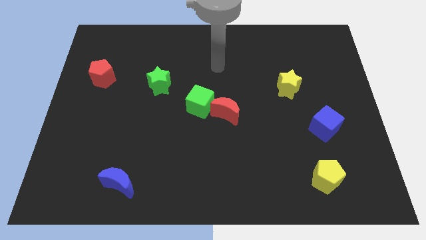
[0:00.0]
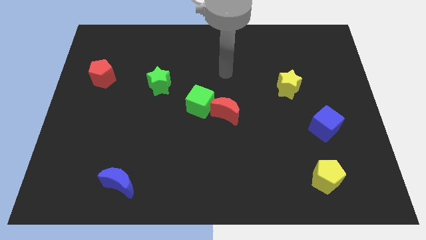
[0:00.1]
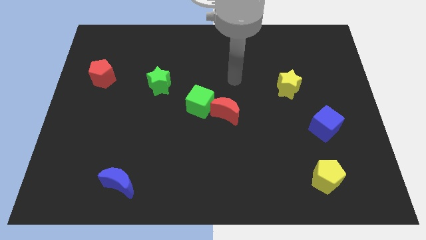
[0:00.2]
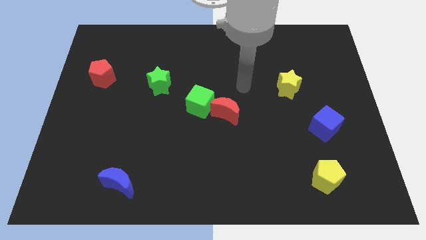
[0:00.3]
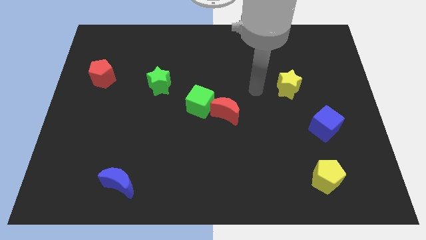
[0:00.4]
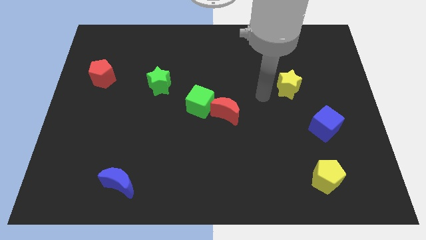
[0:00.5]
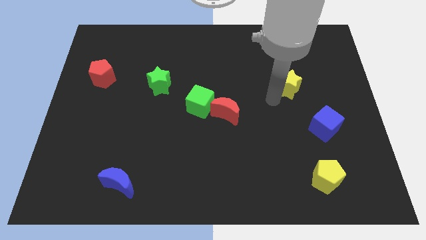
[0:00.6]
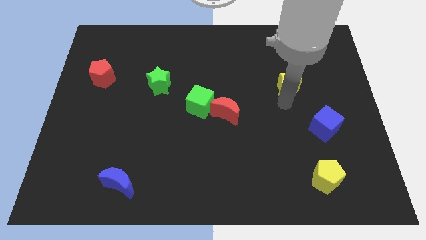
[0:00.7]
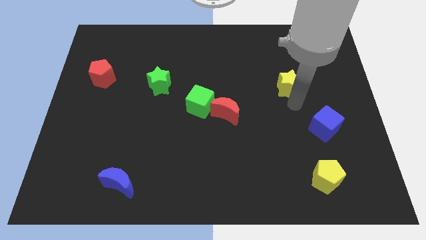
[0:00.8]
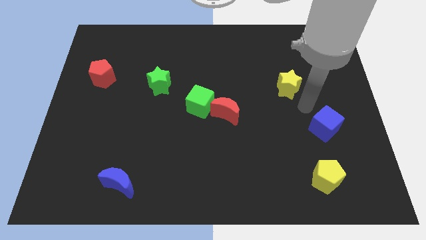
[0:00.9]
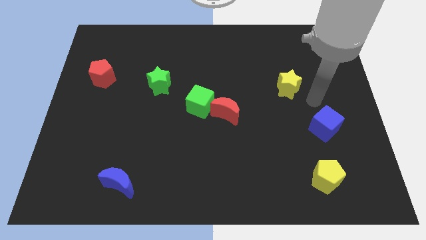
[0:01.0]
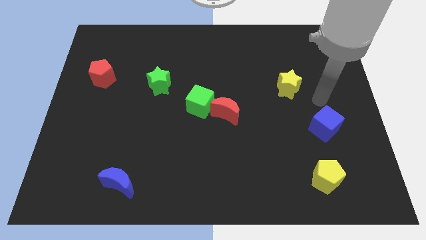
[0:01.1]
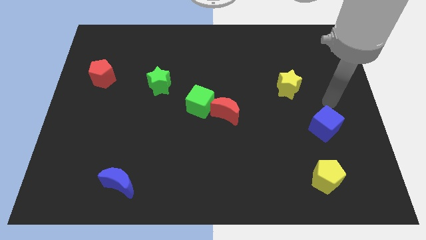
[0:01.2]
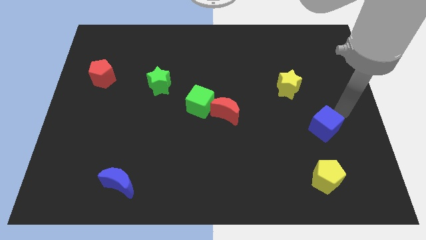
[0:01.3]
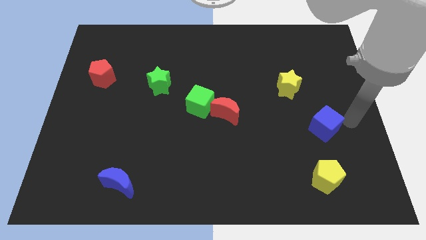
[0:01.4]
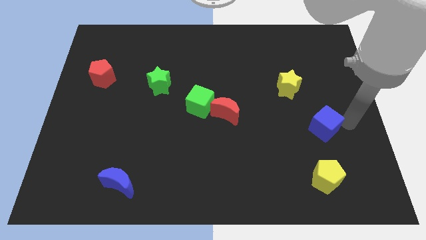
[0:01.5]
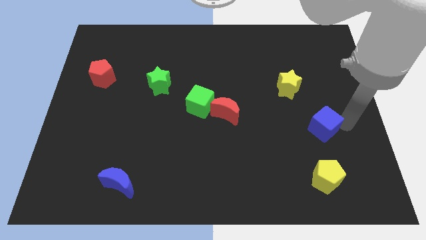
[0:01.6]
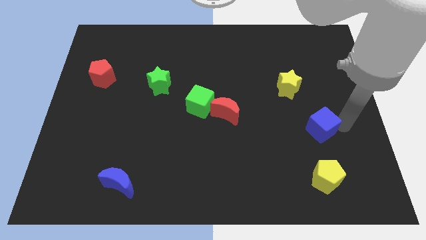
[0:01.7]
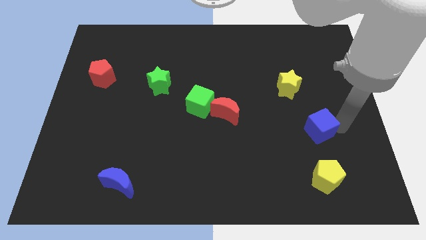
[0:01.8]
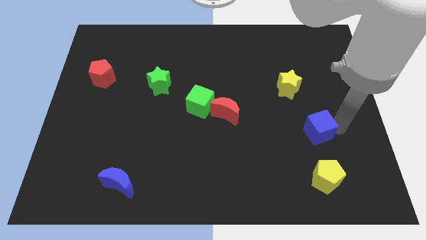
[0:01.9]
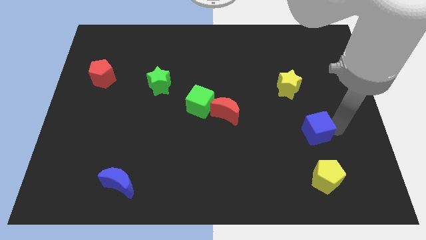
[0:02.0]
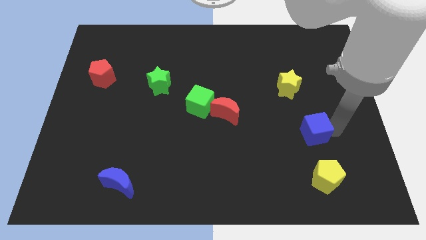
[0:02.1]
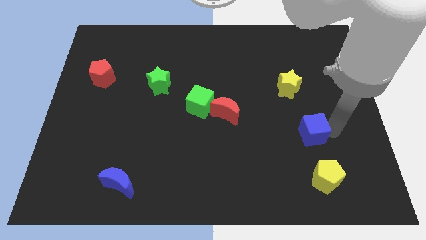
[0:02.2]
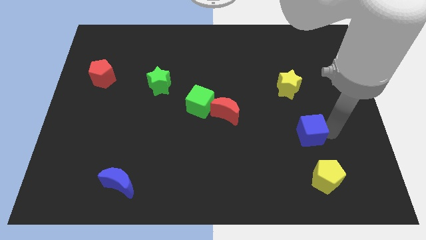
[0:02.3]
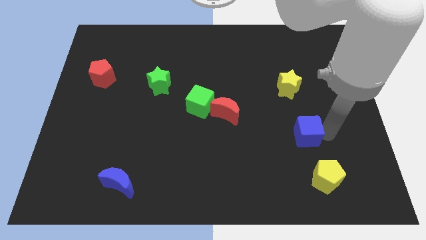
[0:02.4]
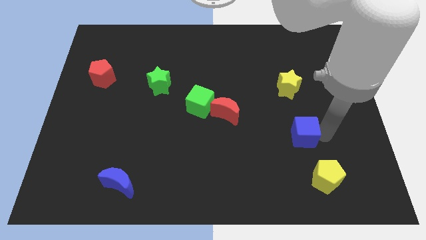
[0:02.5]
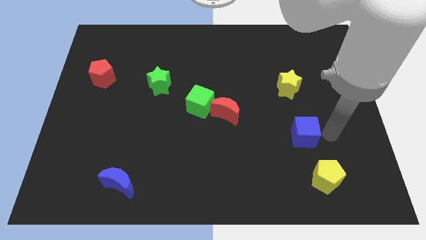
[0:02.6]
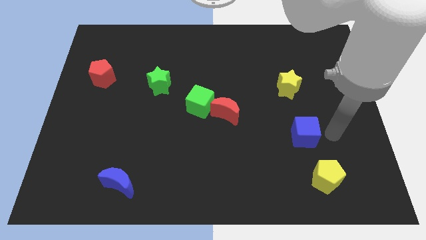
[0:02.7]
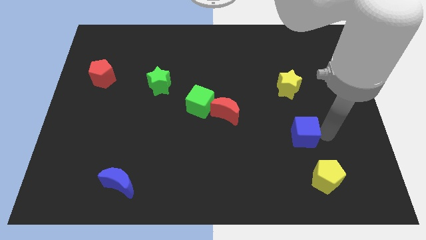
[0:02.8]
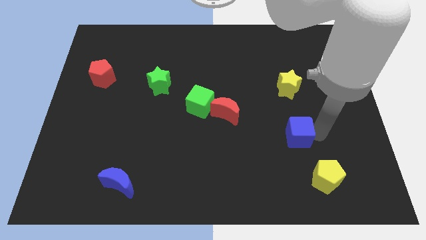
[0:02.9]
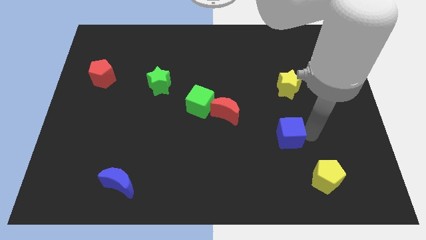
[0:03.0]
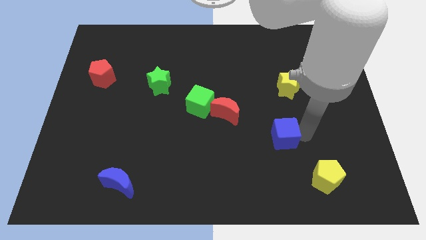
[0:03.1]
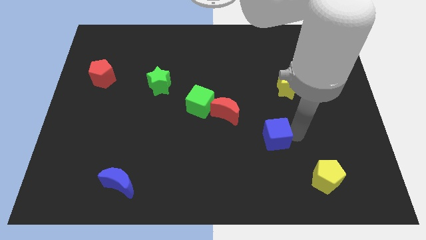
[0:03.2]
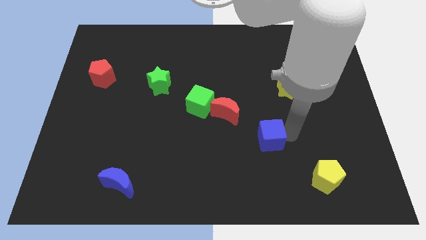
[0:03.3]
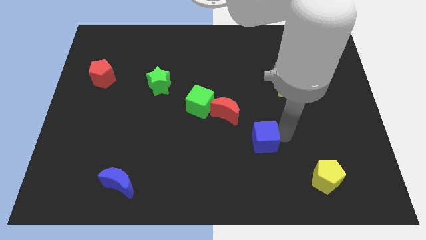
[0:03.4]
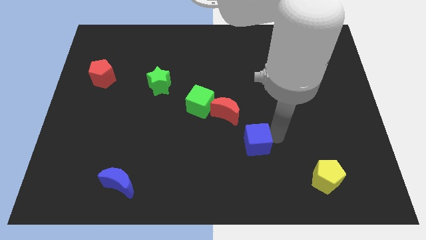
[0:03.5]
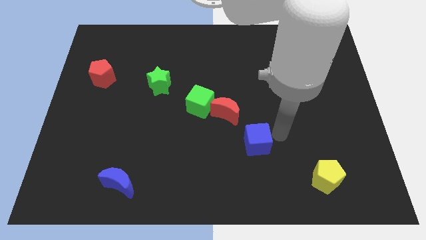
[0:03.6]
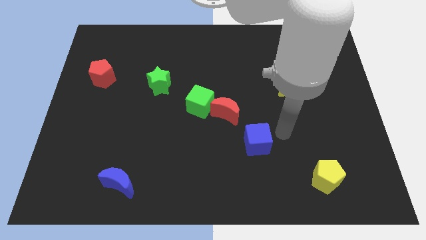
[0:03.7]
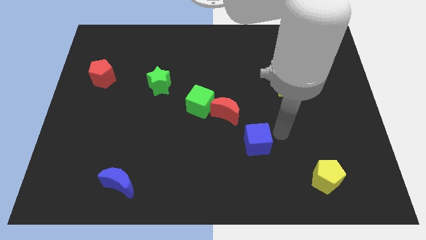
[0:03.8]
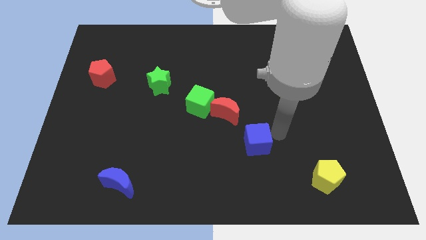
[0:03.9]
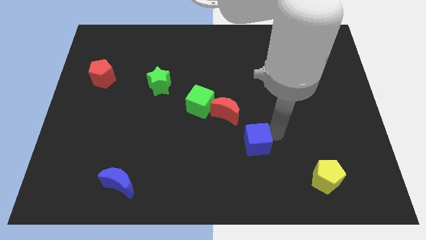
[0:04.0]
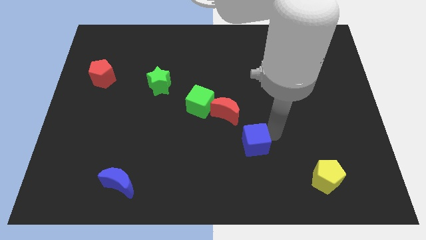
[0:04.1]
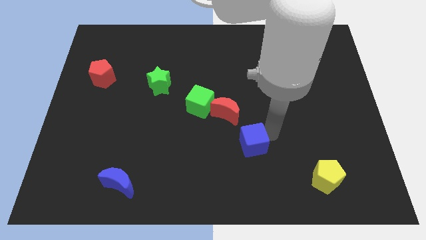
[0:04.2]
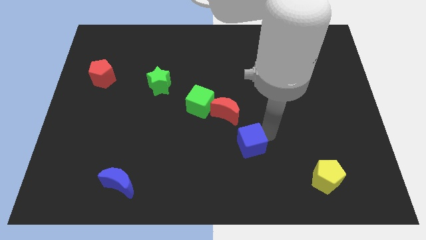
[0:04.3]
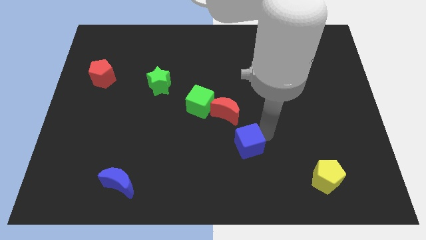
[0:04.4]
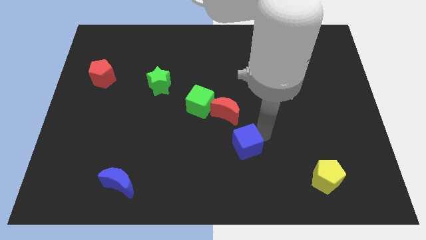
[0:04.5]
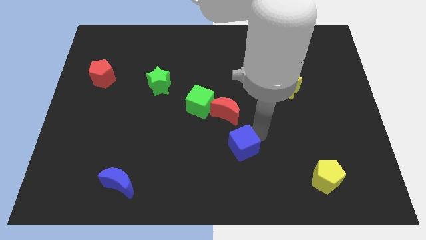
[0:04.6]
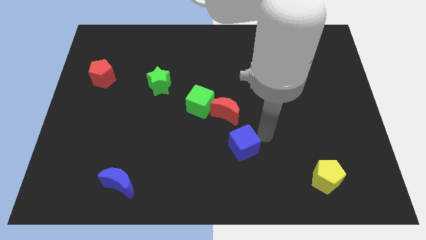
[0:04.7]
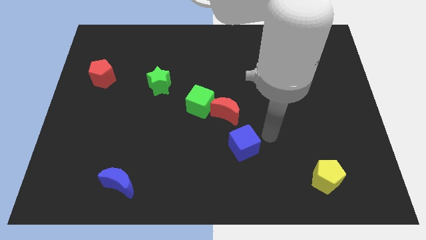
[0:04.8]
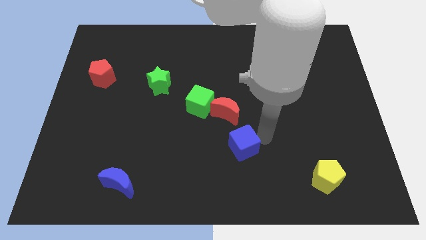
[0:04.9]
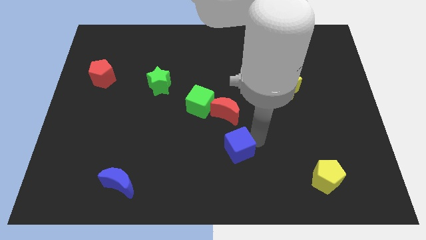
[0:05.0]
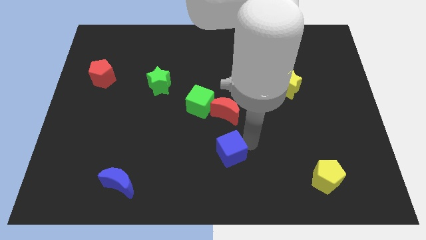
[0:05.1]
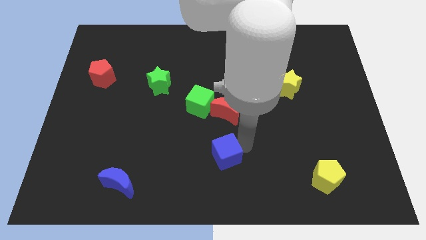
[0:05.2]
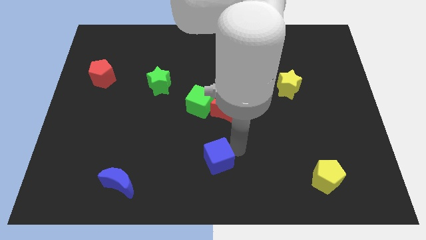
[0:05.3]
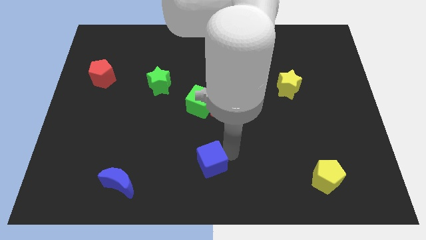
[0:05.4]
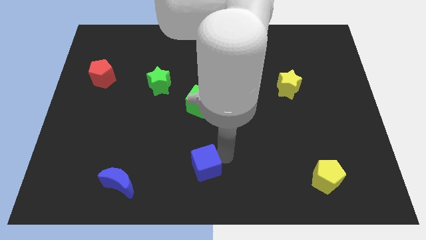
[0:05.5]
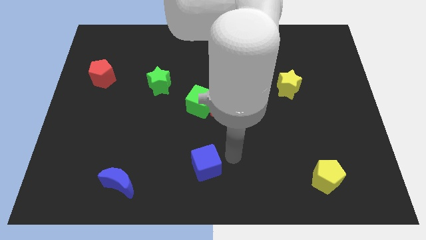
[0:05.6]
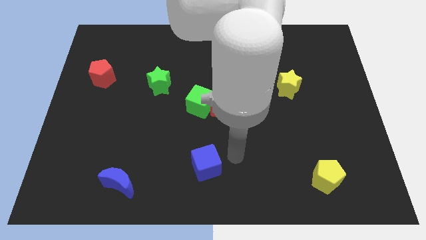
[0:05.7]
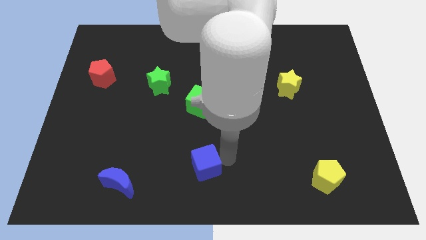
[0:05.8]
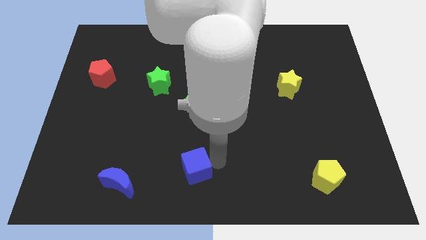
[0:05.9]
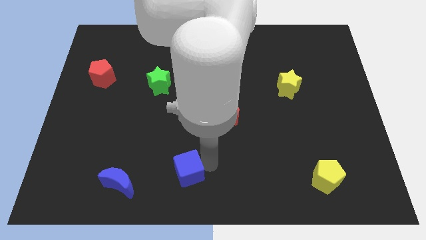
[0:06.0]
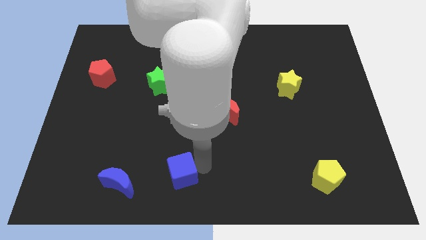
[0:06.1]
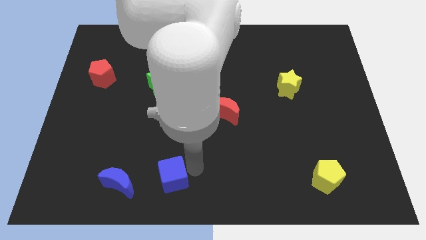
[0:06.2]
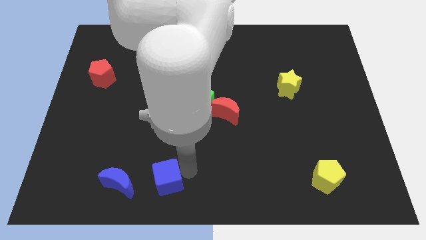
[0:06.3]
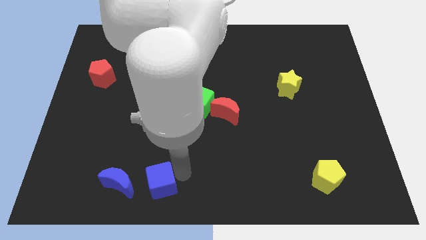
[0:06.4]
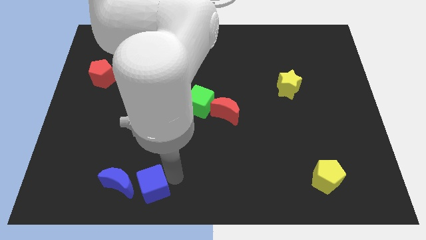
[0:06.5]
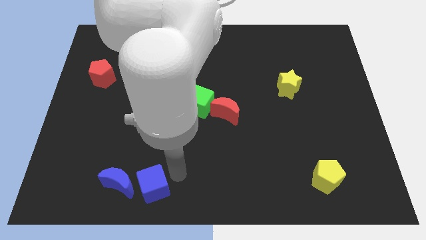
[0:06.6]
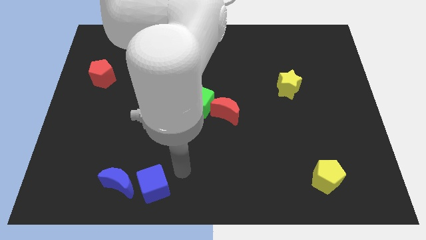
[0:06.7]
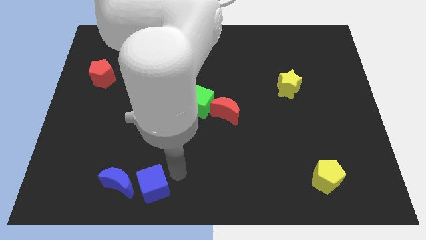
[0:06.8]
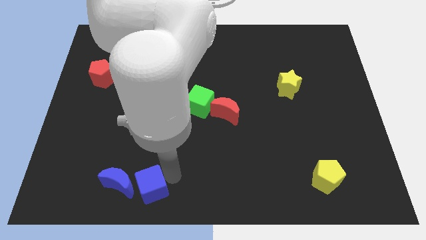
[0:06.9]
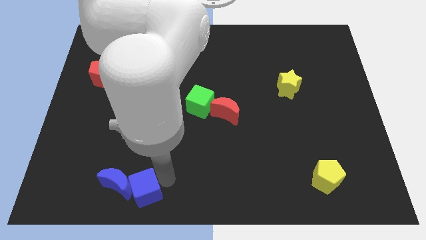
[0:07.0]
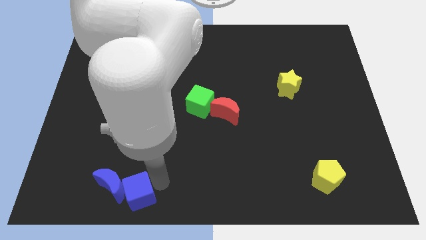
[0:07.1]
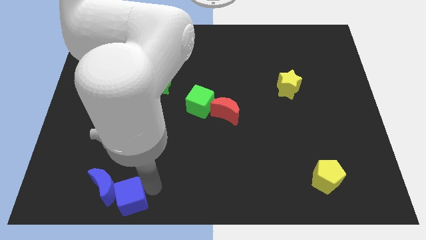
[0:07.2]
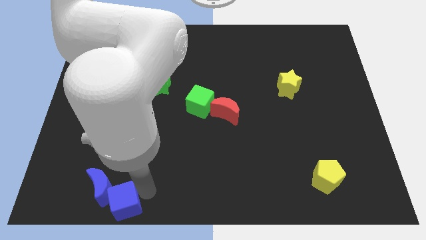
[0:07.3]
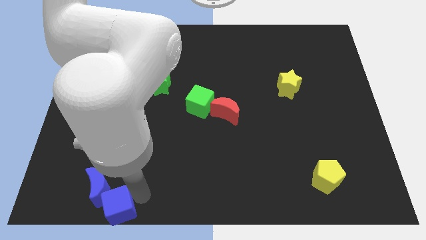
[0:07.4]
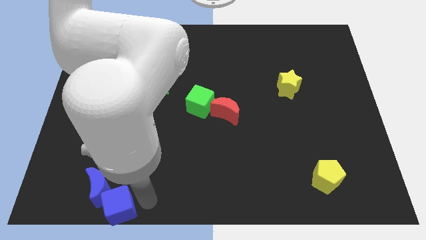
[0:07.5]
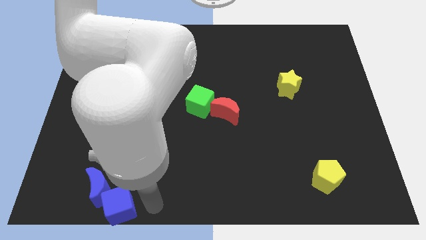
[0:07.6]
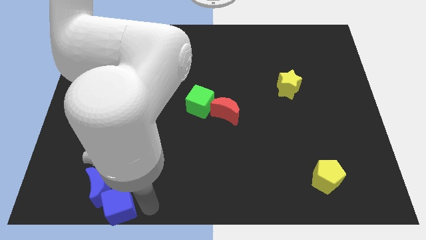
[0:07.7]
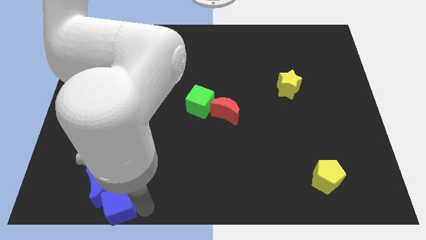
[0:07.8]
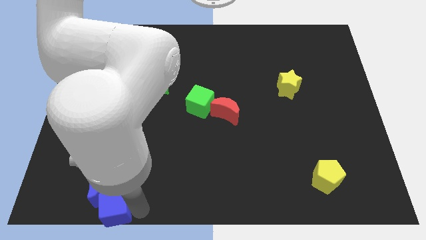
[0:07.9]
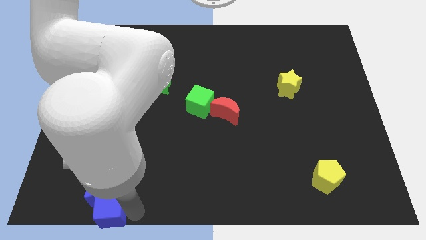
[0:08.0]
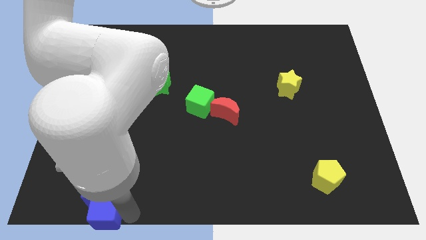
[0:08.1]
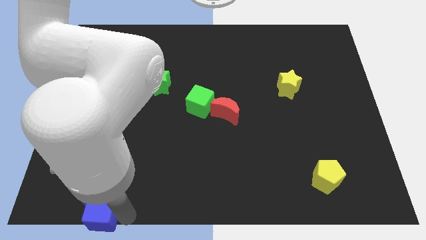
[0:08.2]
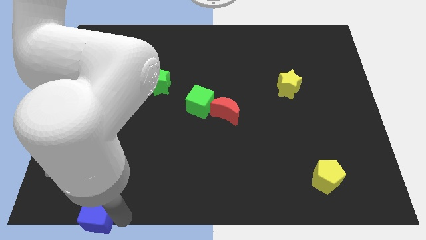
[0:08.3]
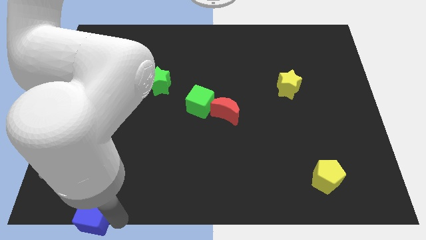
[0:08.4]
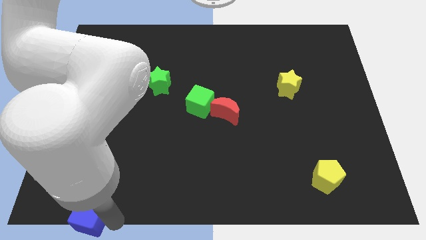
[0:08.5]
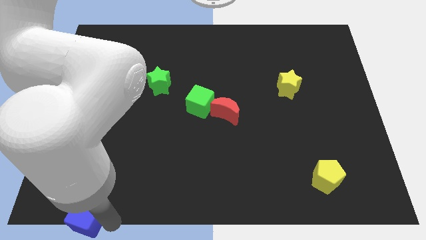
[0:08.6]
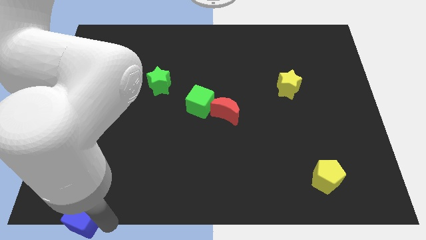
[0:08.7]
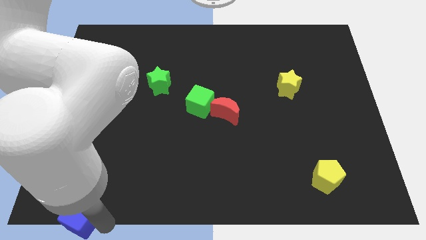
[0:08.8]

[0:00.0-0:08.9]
move the blue cube to the lower left corner
